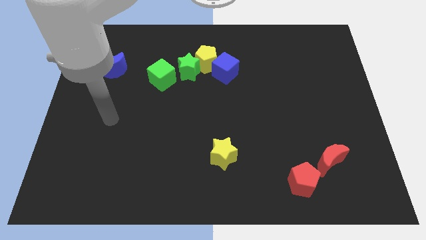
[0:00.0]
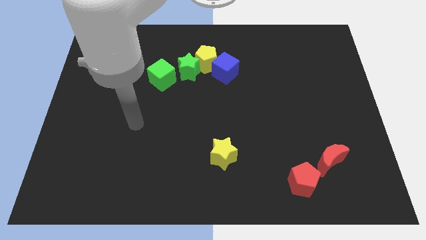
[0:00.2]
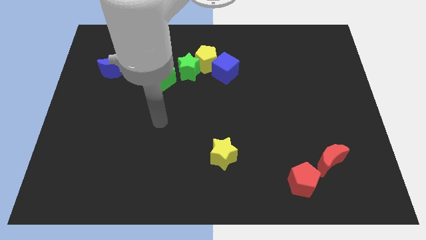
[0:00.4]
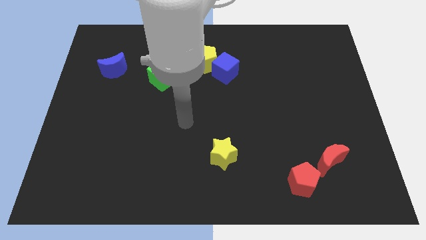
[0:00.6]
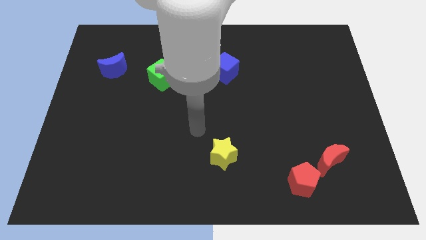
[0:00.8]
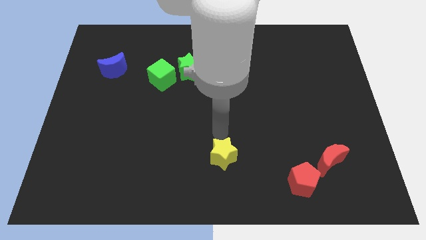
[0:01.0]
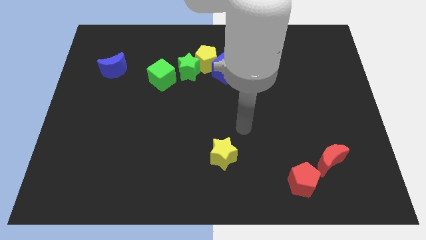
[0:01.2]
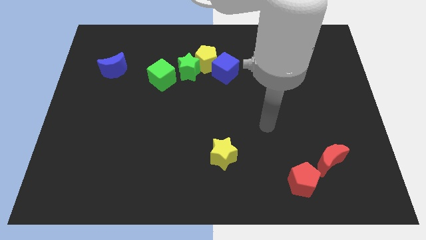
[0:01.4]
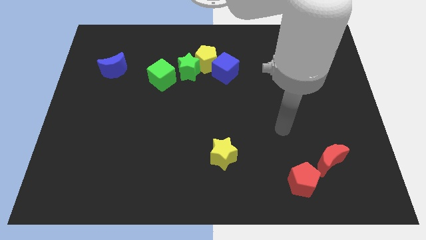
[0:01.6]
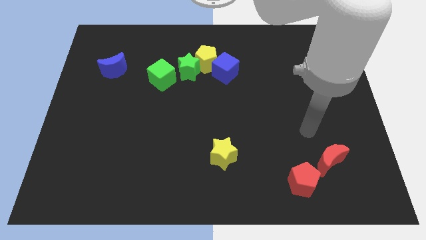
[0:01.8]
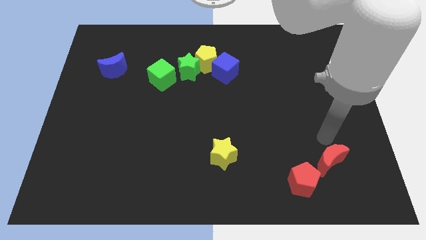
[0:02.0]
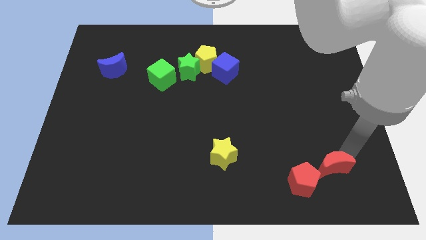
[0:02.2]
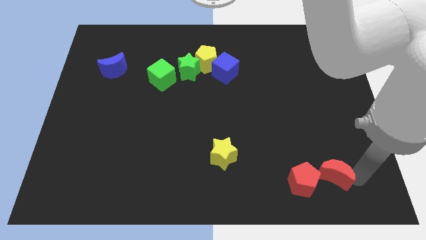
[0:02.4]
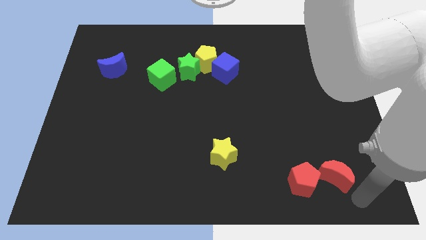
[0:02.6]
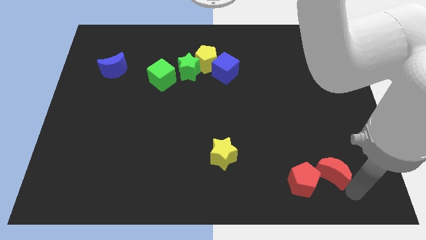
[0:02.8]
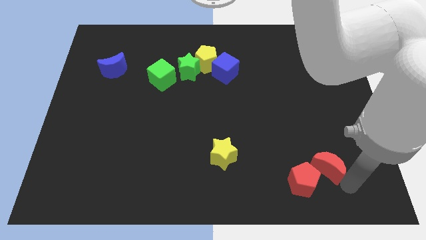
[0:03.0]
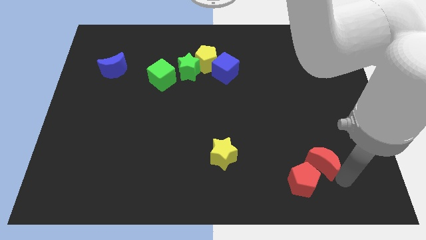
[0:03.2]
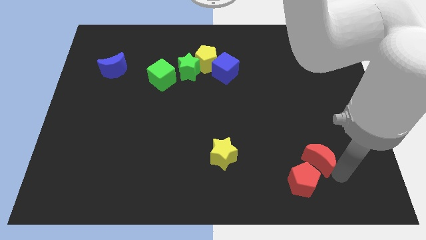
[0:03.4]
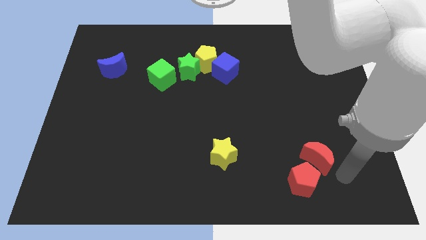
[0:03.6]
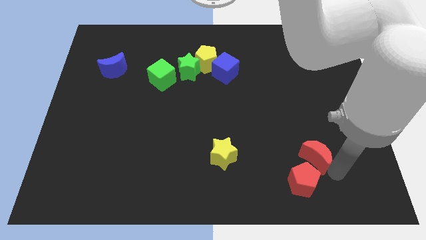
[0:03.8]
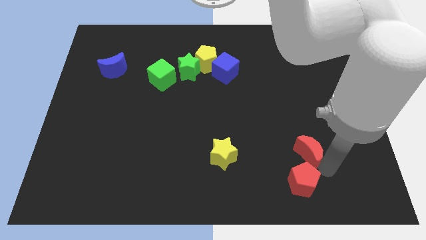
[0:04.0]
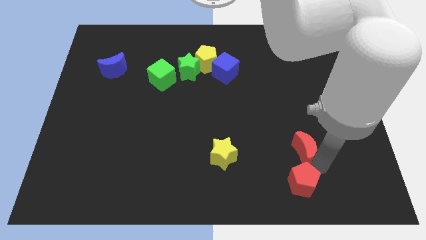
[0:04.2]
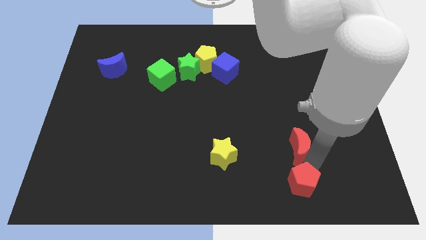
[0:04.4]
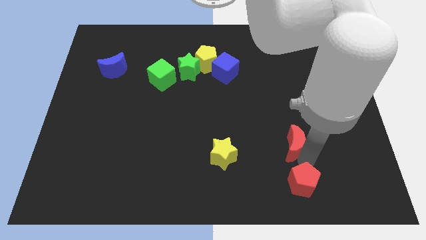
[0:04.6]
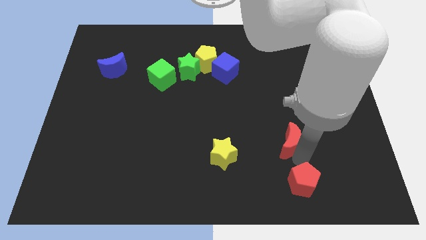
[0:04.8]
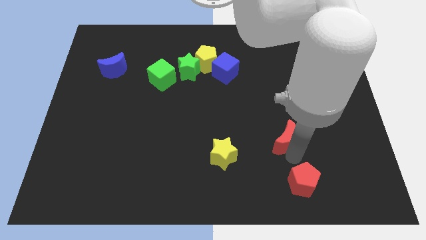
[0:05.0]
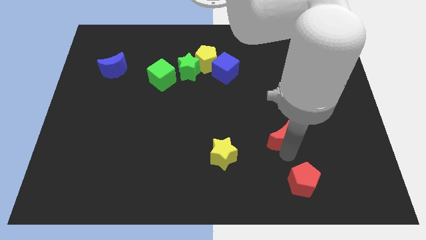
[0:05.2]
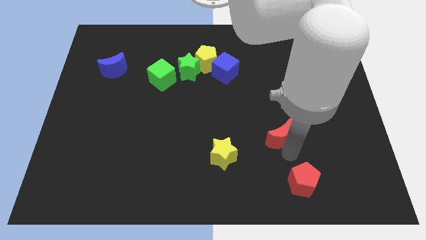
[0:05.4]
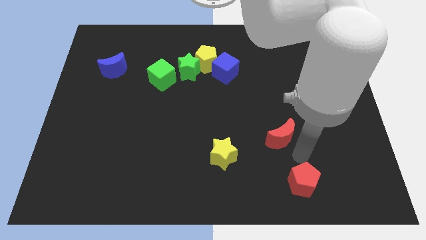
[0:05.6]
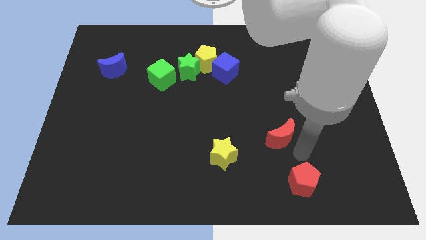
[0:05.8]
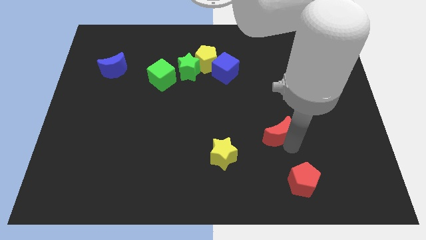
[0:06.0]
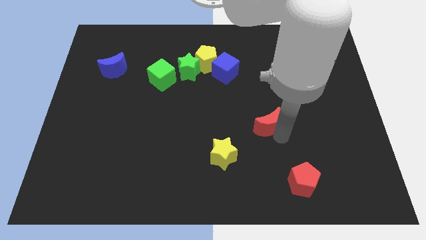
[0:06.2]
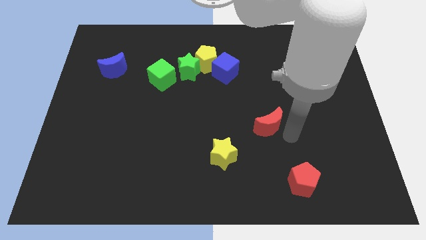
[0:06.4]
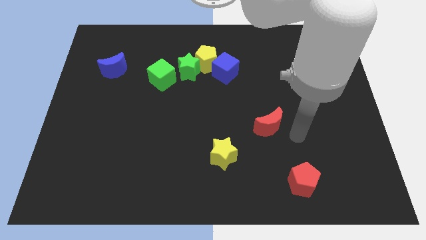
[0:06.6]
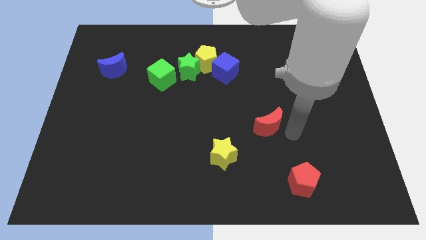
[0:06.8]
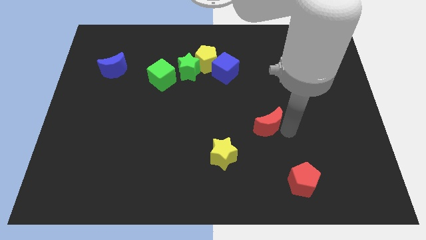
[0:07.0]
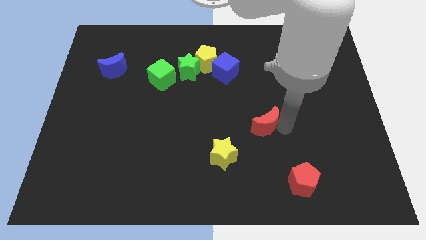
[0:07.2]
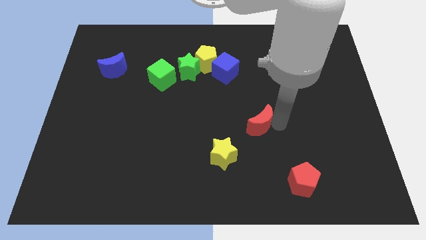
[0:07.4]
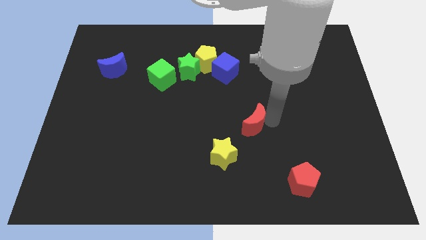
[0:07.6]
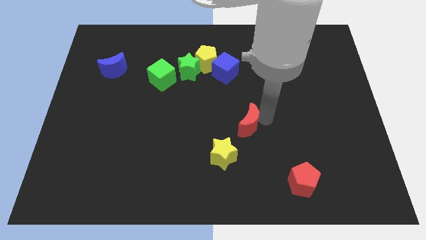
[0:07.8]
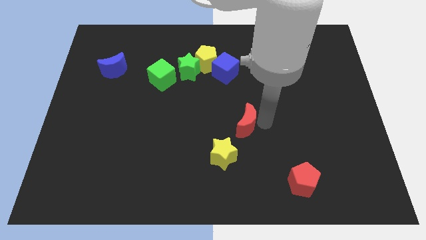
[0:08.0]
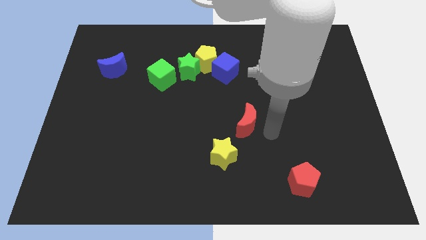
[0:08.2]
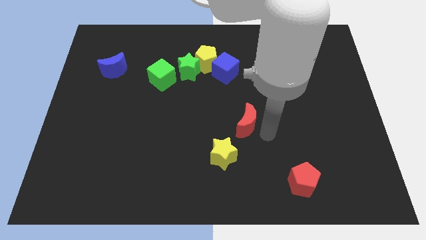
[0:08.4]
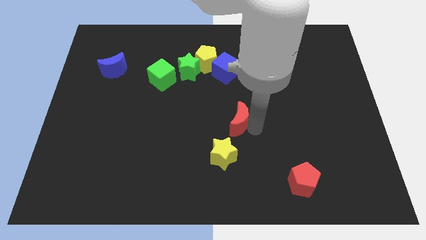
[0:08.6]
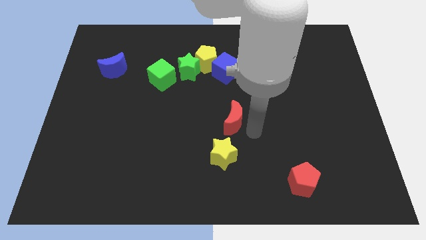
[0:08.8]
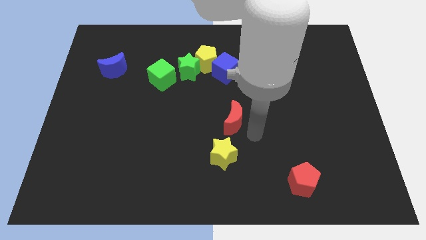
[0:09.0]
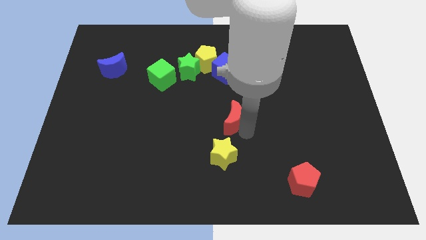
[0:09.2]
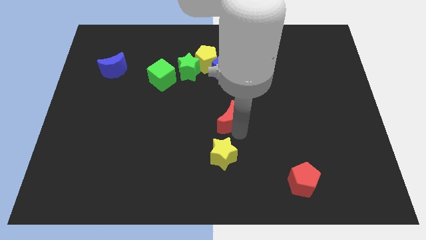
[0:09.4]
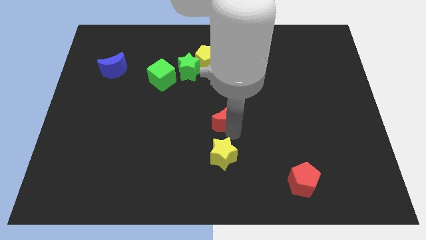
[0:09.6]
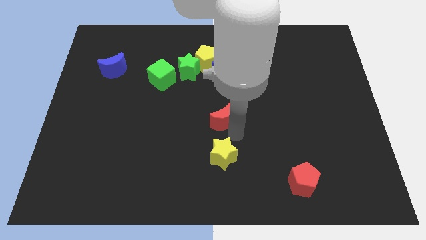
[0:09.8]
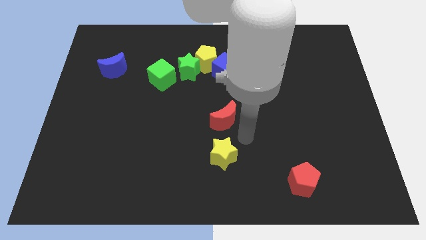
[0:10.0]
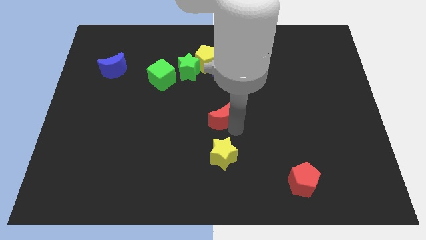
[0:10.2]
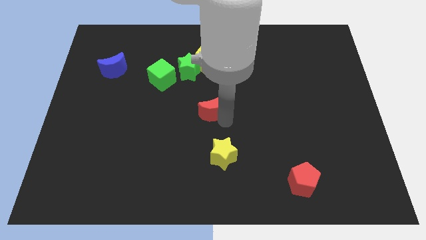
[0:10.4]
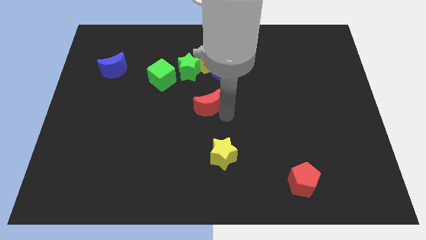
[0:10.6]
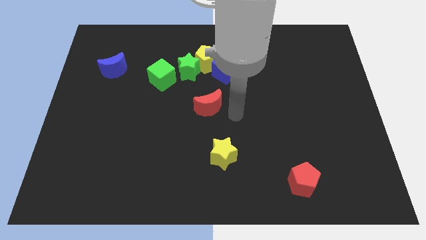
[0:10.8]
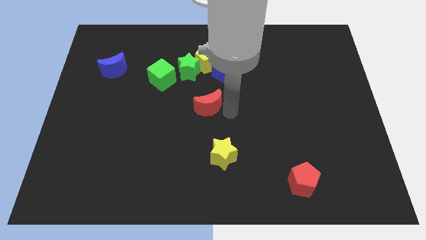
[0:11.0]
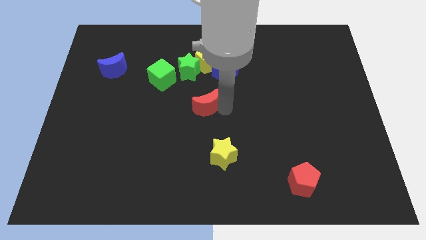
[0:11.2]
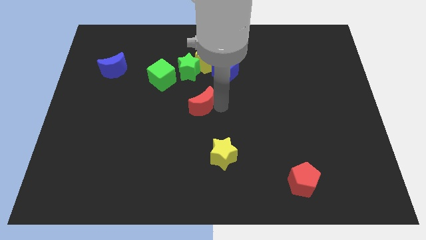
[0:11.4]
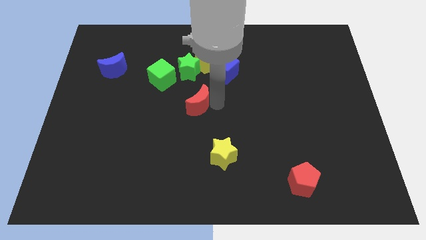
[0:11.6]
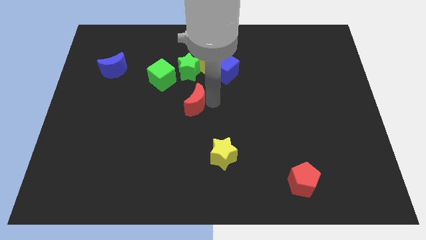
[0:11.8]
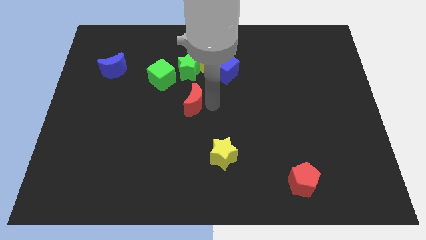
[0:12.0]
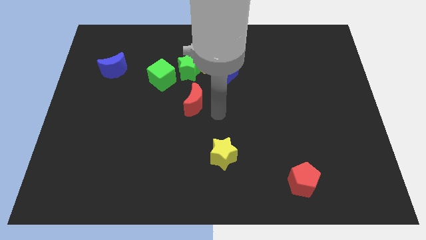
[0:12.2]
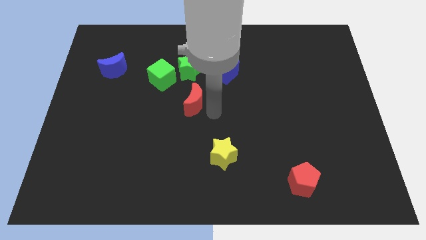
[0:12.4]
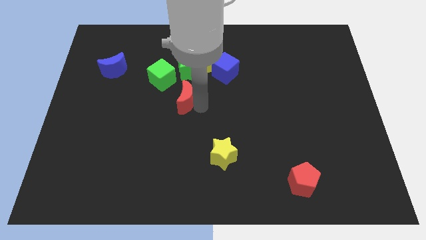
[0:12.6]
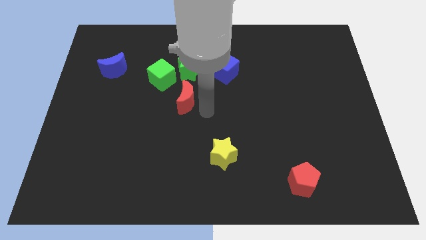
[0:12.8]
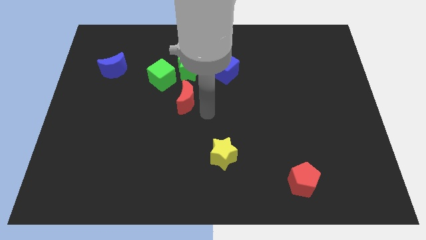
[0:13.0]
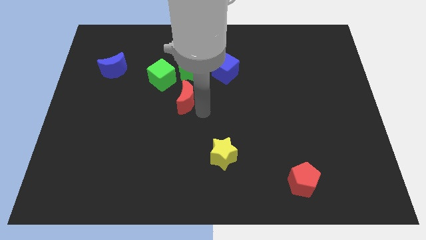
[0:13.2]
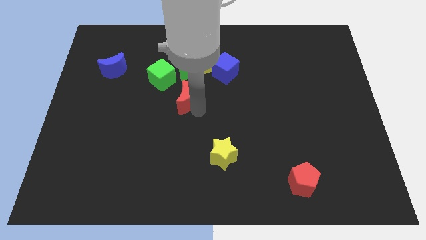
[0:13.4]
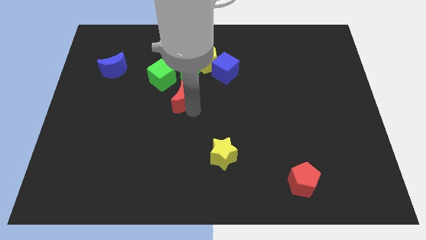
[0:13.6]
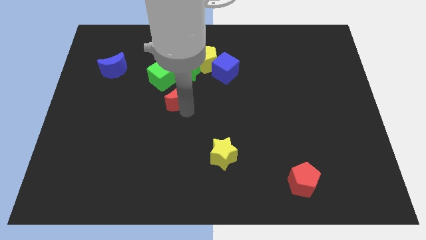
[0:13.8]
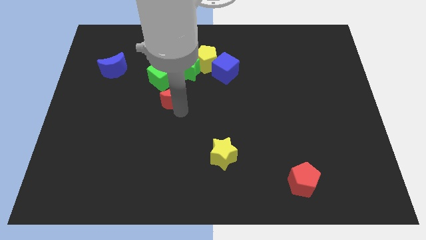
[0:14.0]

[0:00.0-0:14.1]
push the red moon to the bottom left of the green star

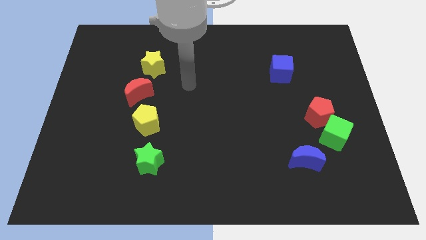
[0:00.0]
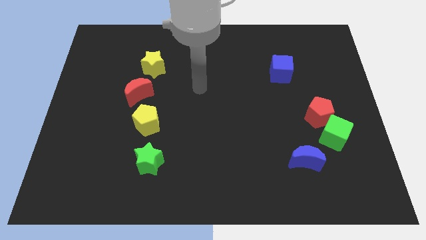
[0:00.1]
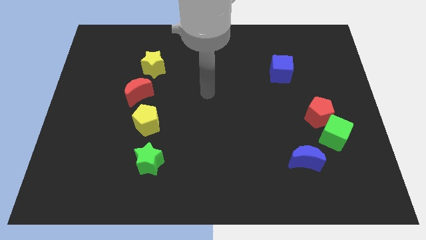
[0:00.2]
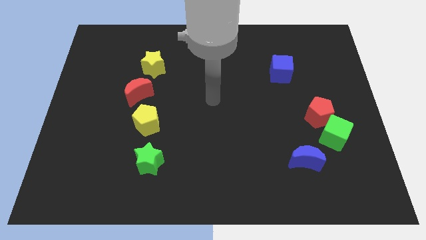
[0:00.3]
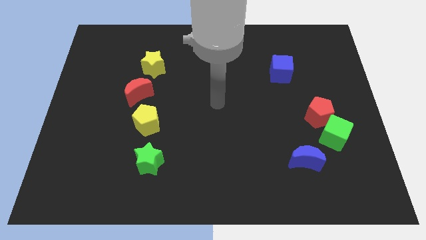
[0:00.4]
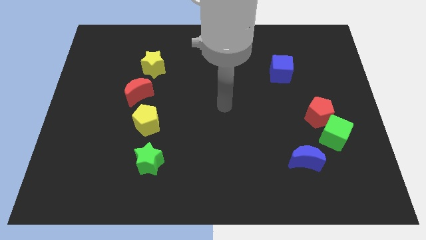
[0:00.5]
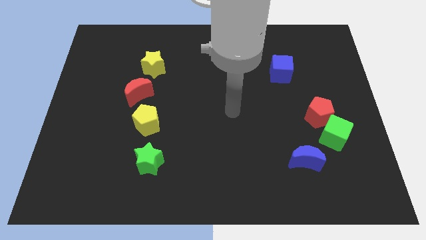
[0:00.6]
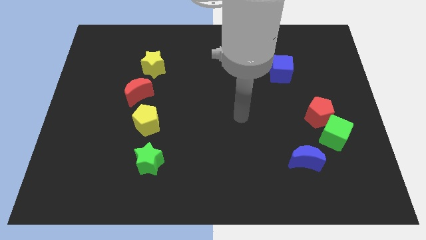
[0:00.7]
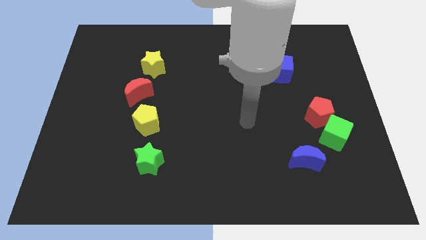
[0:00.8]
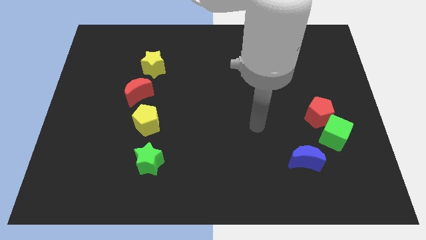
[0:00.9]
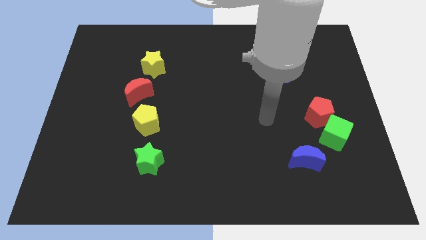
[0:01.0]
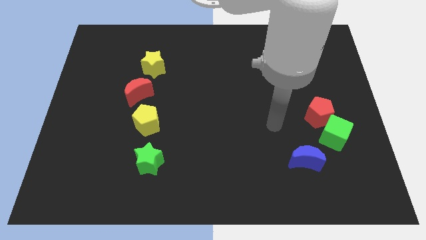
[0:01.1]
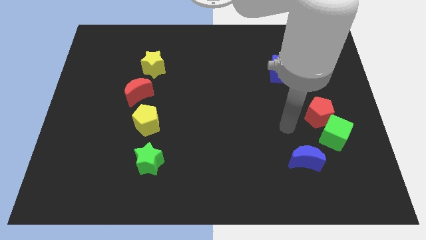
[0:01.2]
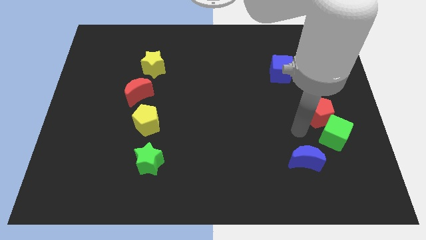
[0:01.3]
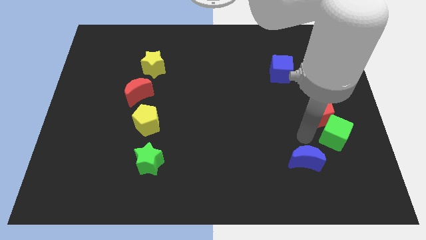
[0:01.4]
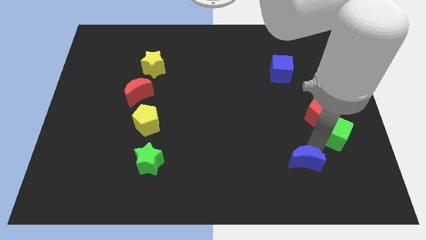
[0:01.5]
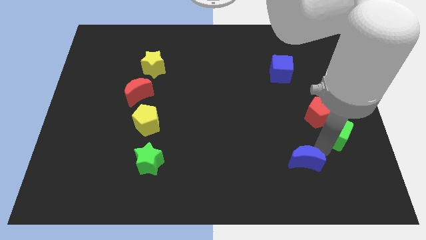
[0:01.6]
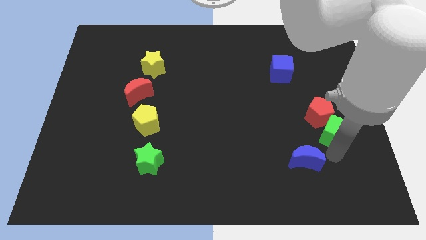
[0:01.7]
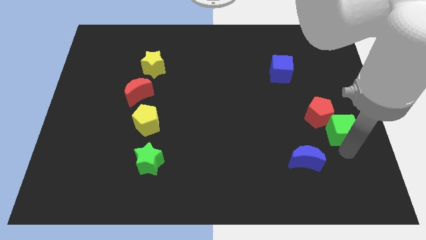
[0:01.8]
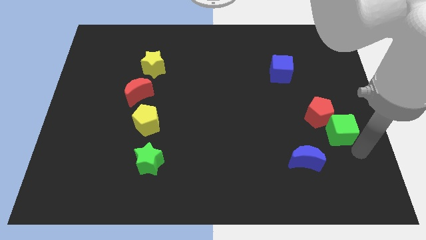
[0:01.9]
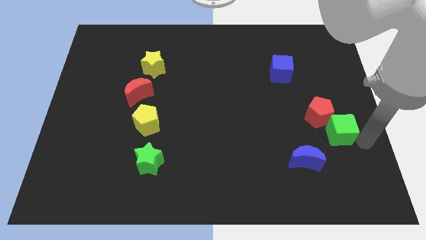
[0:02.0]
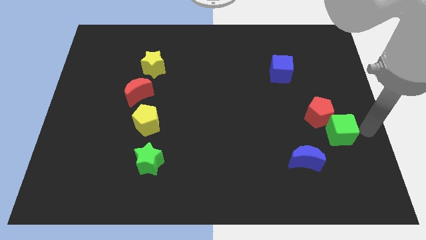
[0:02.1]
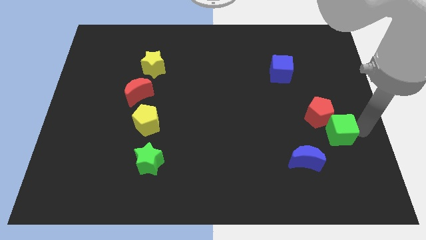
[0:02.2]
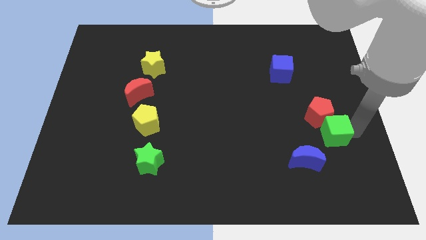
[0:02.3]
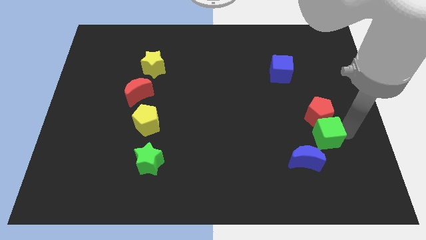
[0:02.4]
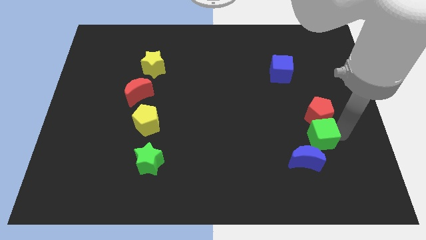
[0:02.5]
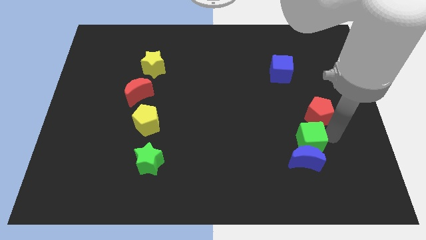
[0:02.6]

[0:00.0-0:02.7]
move the green cube to the top left side of the blue moon
